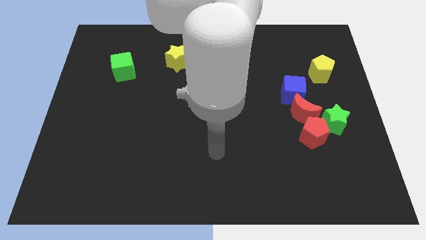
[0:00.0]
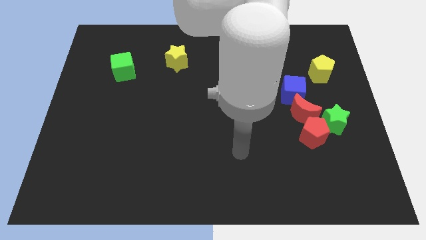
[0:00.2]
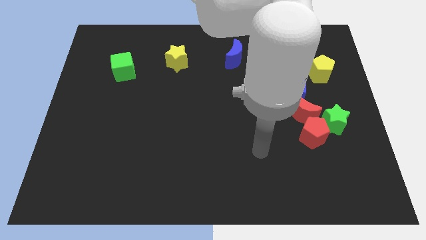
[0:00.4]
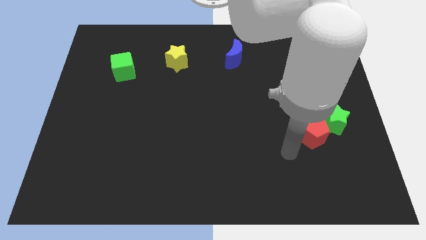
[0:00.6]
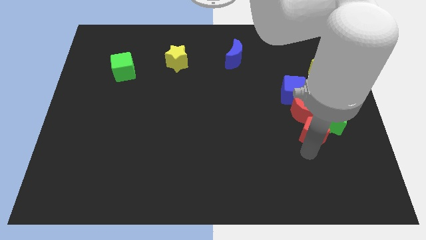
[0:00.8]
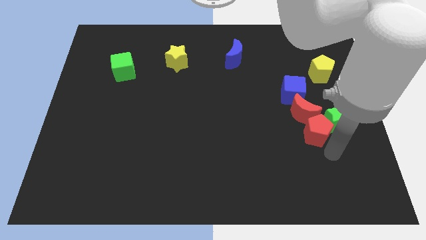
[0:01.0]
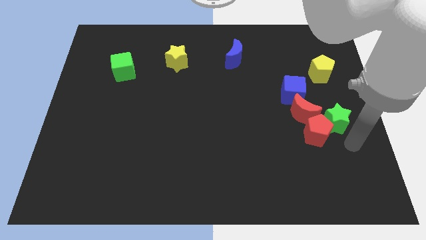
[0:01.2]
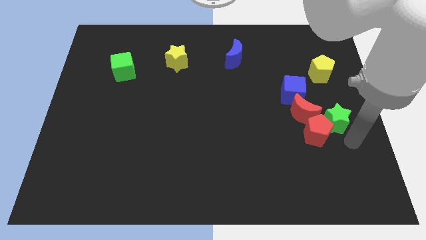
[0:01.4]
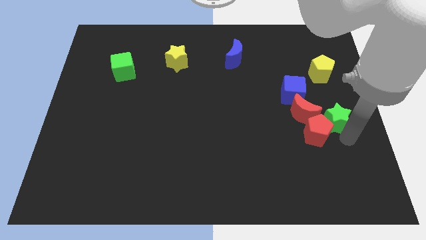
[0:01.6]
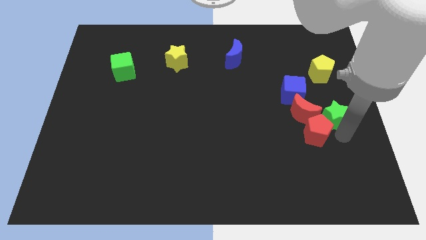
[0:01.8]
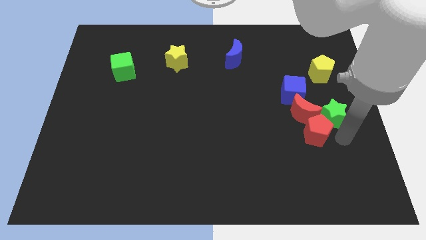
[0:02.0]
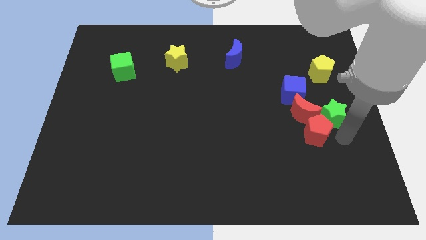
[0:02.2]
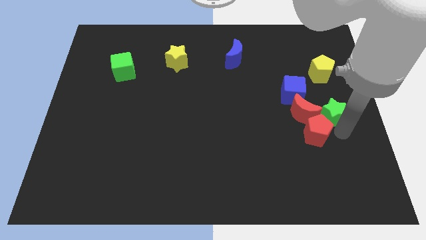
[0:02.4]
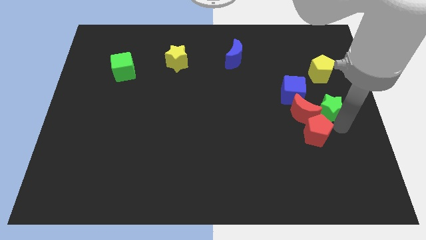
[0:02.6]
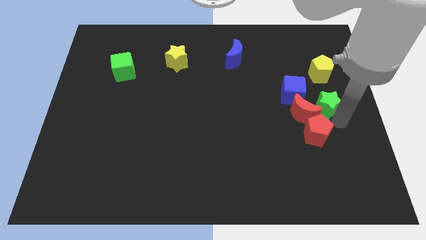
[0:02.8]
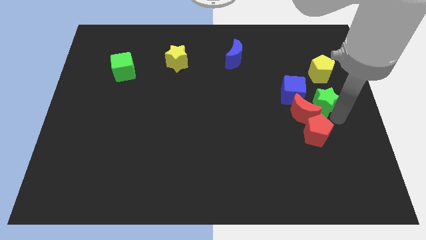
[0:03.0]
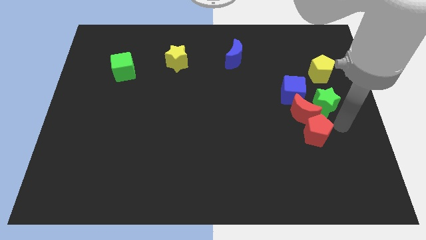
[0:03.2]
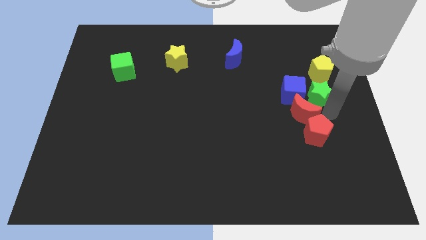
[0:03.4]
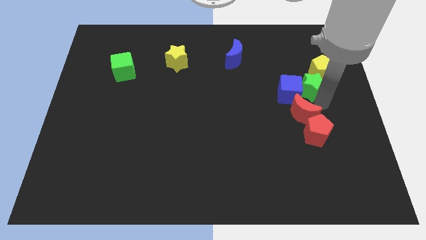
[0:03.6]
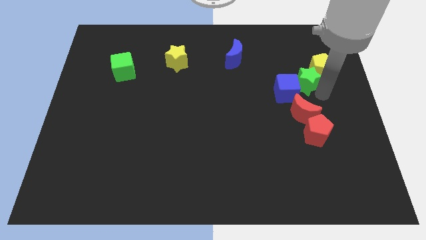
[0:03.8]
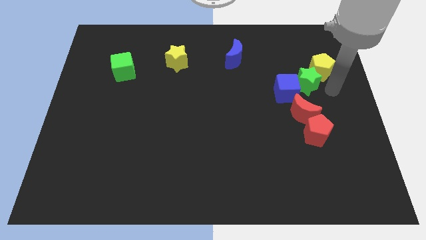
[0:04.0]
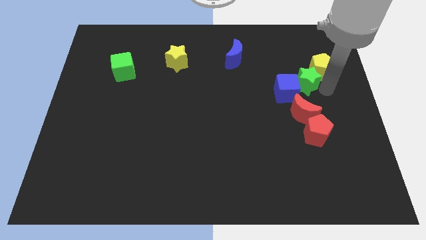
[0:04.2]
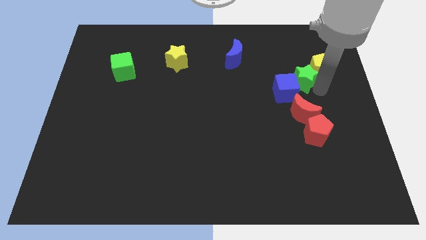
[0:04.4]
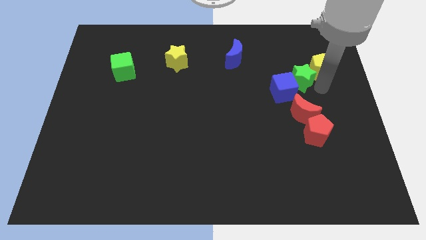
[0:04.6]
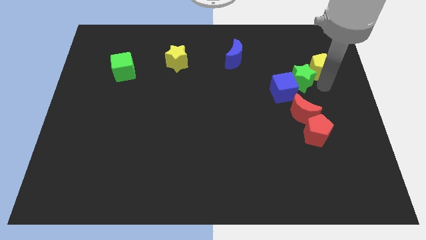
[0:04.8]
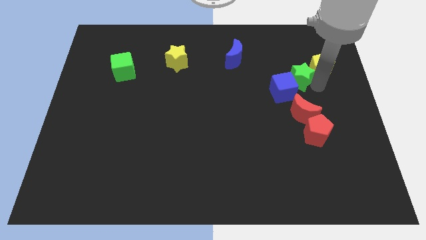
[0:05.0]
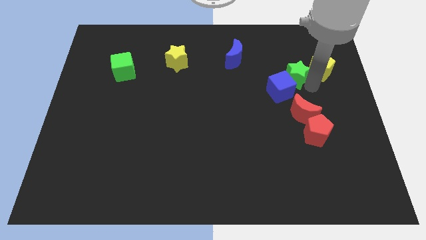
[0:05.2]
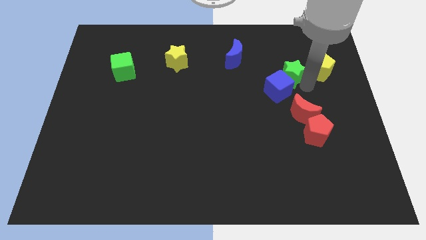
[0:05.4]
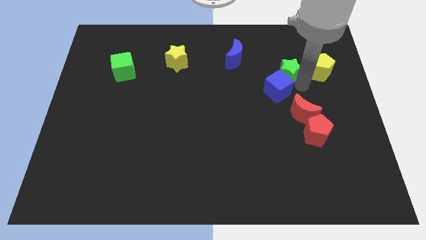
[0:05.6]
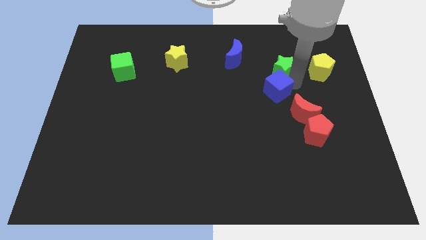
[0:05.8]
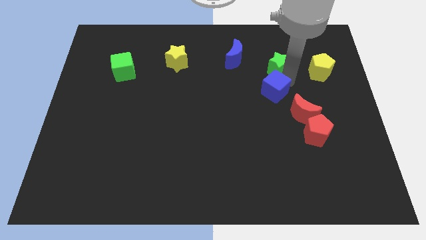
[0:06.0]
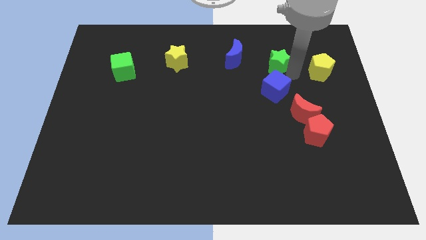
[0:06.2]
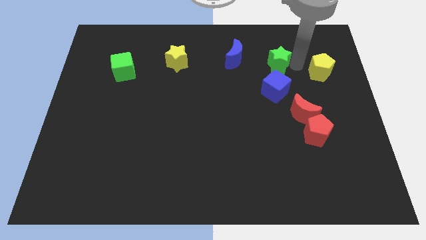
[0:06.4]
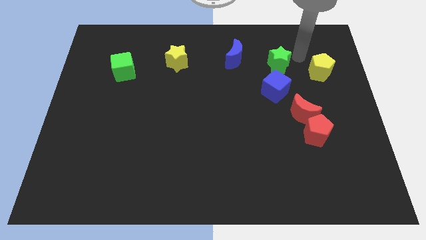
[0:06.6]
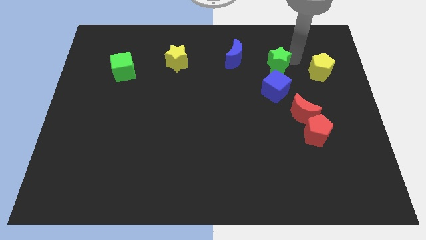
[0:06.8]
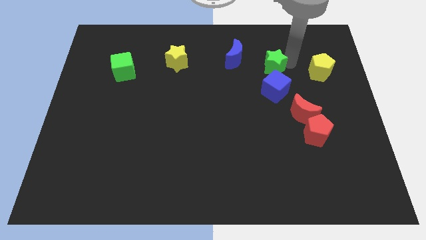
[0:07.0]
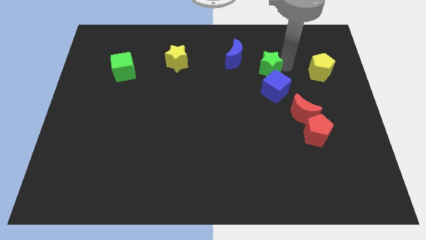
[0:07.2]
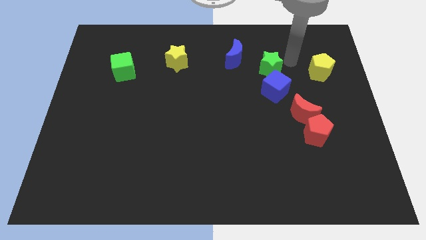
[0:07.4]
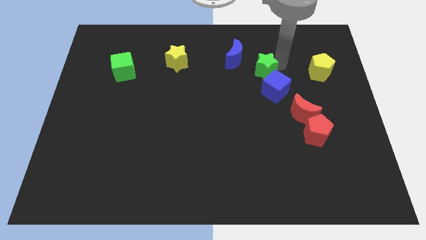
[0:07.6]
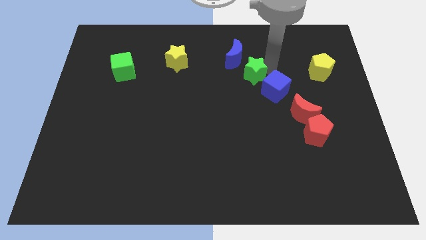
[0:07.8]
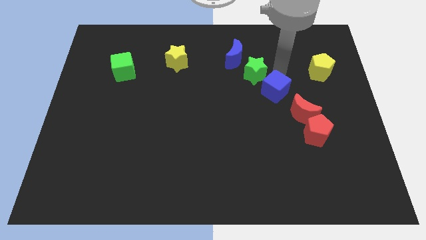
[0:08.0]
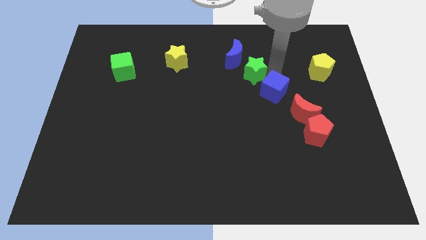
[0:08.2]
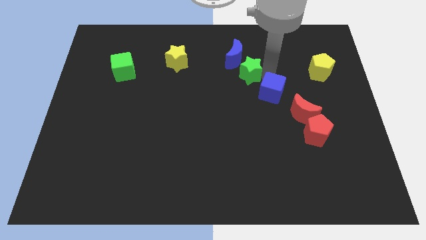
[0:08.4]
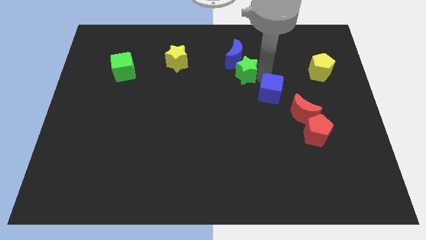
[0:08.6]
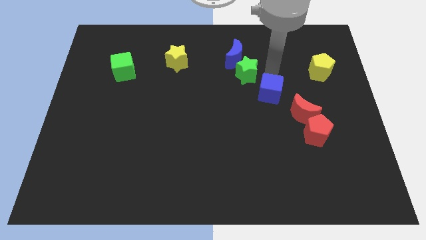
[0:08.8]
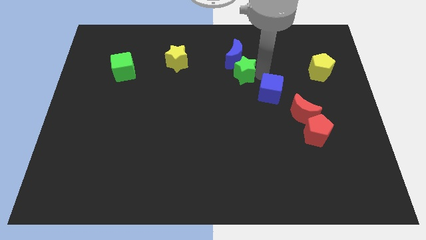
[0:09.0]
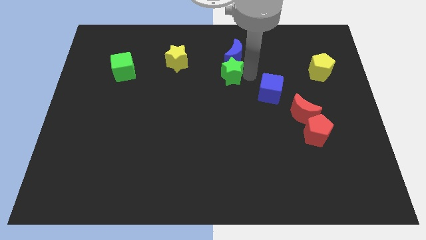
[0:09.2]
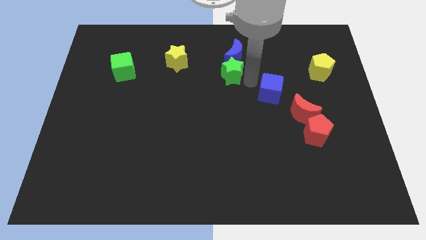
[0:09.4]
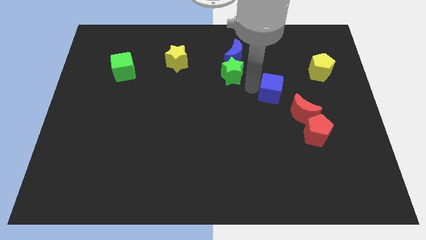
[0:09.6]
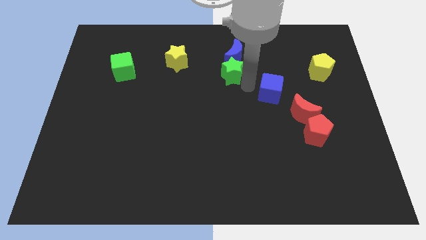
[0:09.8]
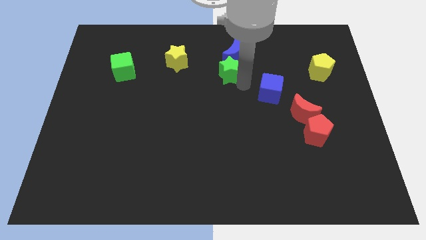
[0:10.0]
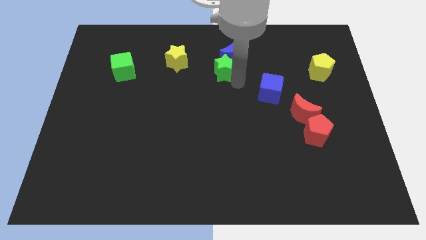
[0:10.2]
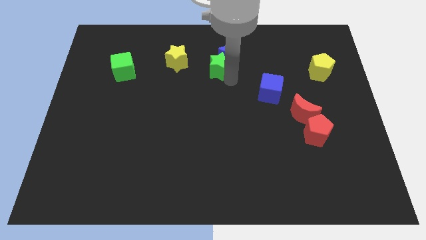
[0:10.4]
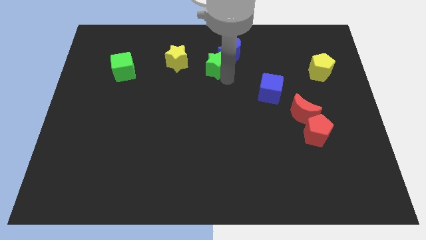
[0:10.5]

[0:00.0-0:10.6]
slide the green star to the left of the blue moon
